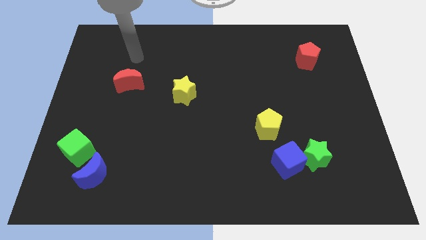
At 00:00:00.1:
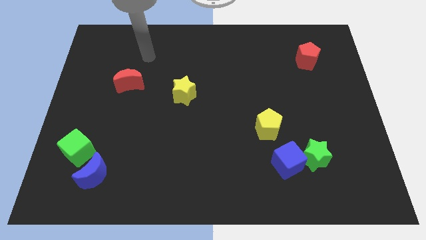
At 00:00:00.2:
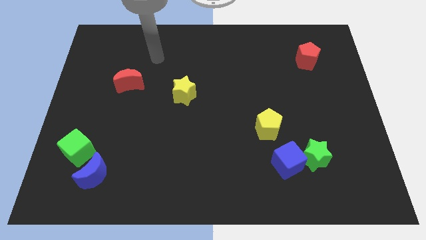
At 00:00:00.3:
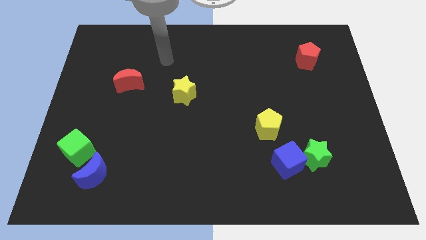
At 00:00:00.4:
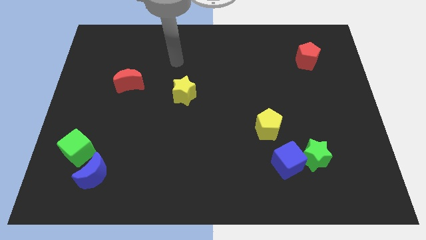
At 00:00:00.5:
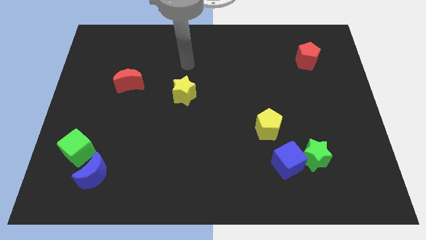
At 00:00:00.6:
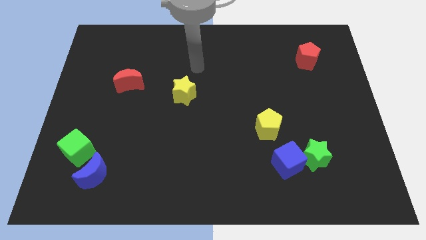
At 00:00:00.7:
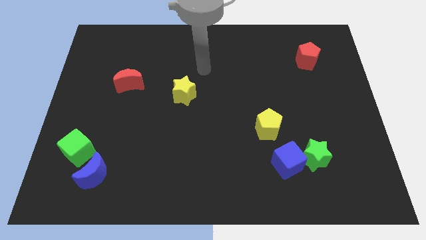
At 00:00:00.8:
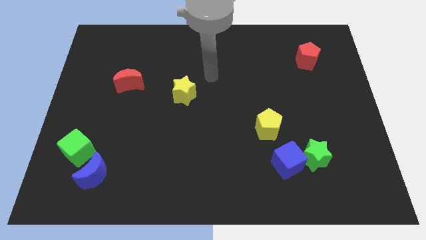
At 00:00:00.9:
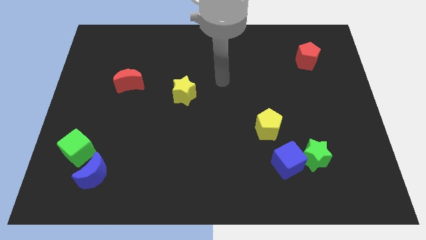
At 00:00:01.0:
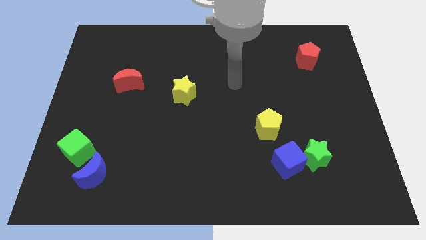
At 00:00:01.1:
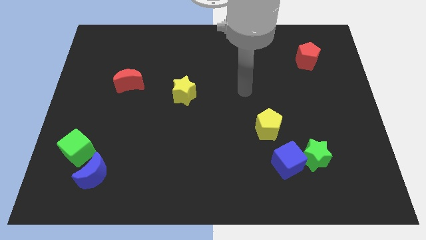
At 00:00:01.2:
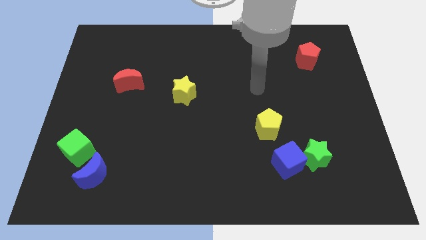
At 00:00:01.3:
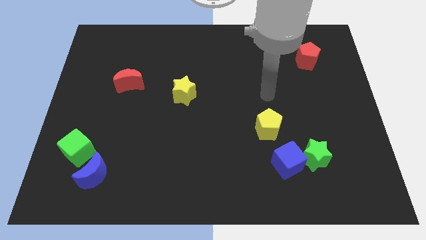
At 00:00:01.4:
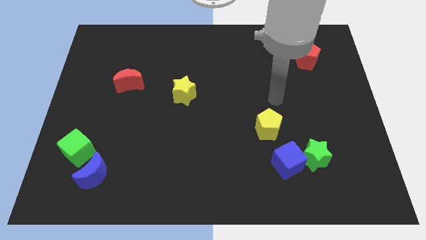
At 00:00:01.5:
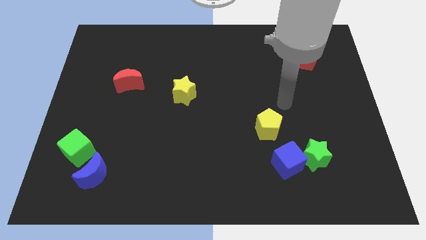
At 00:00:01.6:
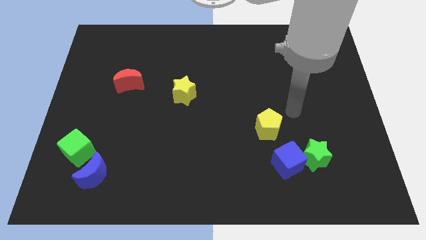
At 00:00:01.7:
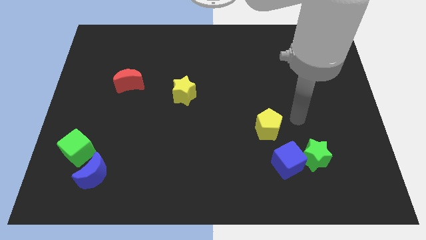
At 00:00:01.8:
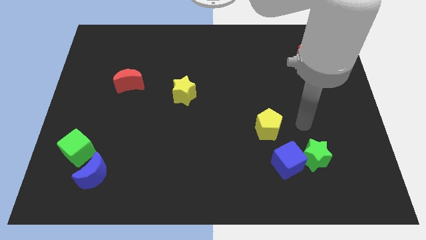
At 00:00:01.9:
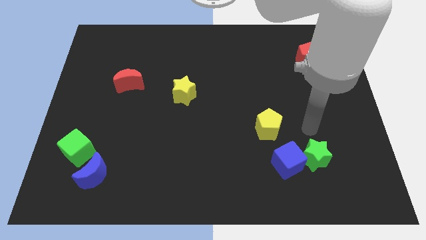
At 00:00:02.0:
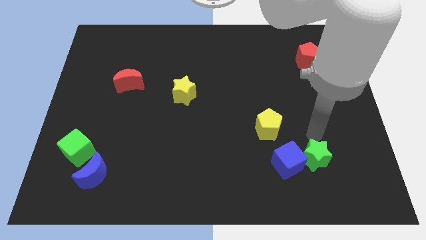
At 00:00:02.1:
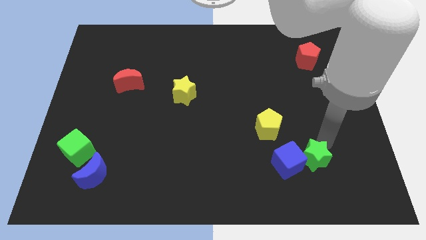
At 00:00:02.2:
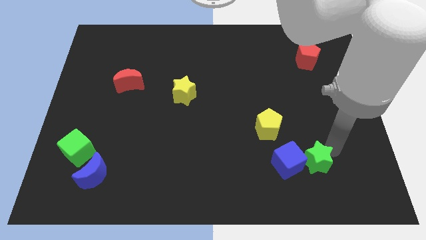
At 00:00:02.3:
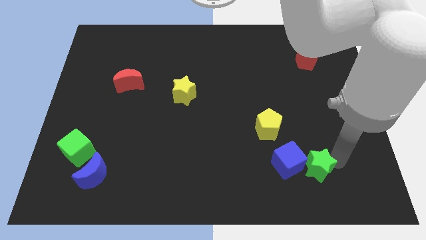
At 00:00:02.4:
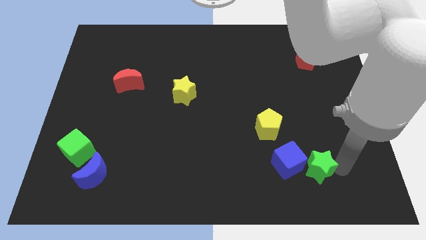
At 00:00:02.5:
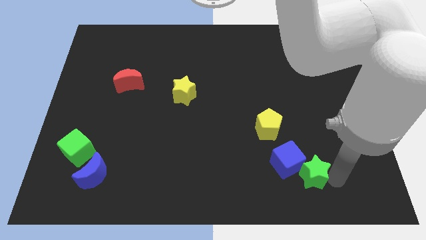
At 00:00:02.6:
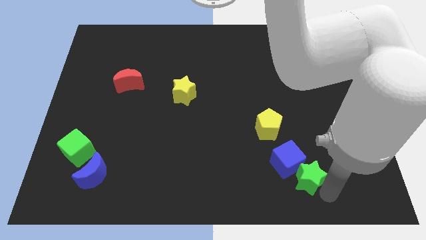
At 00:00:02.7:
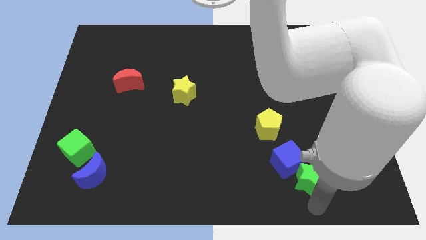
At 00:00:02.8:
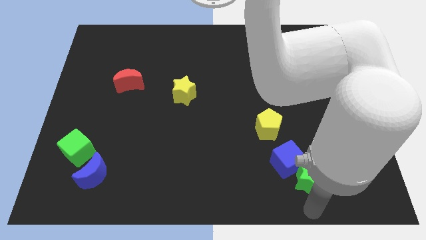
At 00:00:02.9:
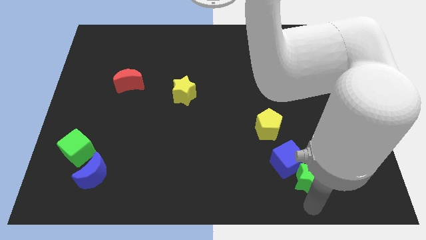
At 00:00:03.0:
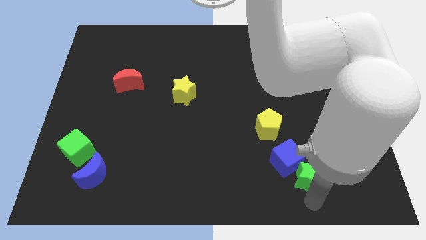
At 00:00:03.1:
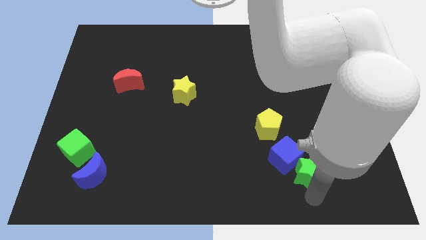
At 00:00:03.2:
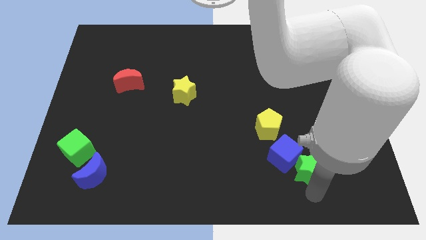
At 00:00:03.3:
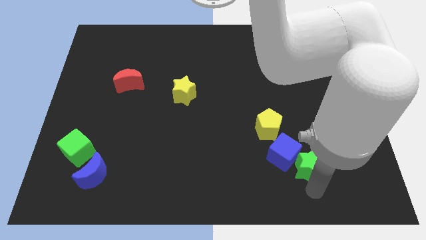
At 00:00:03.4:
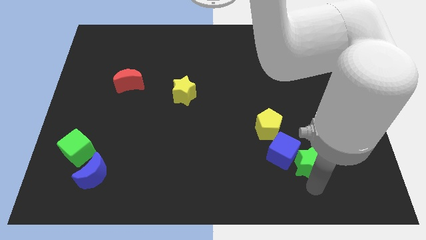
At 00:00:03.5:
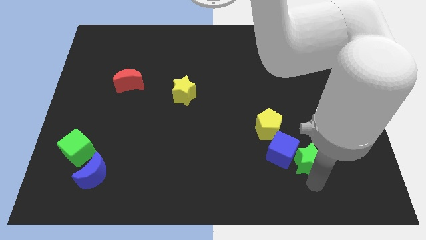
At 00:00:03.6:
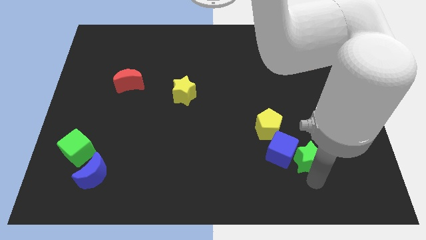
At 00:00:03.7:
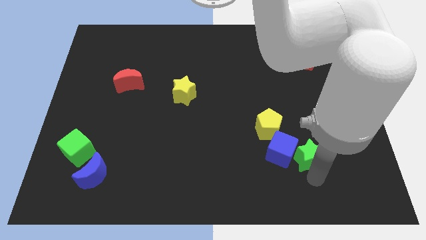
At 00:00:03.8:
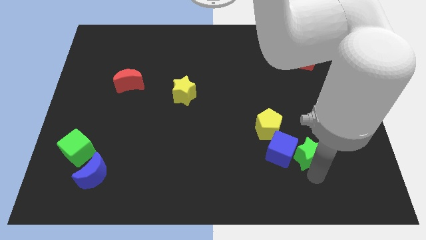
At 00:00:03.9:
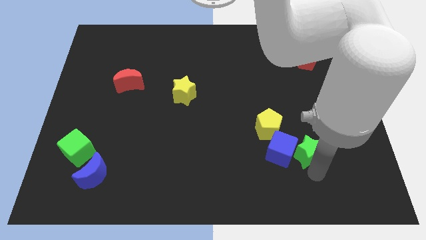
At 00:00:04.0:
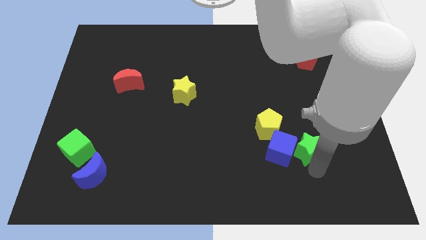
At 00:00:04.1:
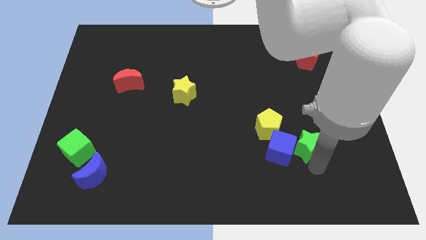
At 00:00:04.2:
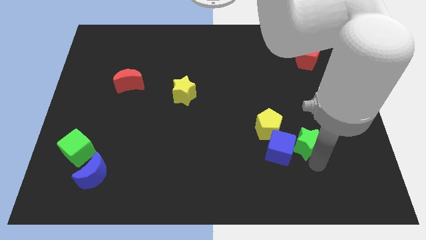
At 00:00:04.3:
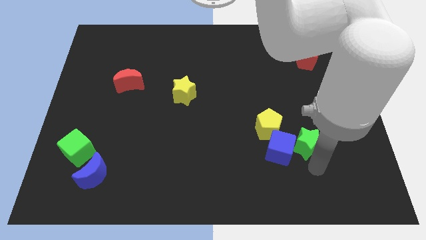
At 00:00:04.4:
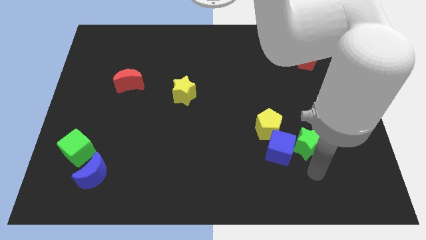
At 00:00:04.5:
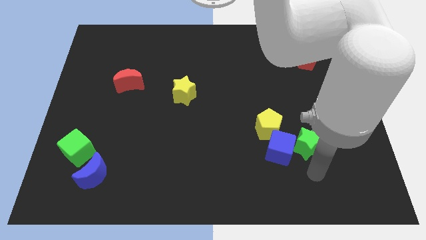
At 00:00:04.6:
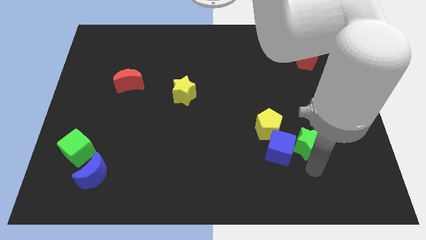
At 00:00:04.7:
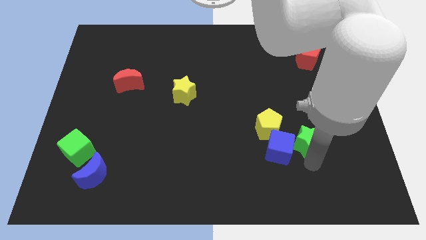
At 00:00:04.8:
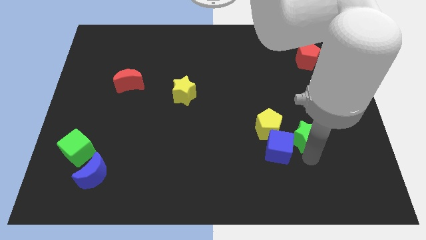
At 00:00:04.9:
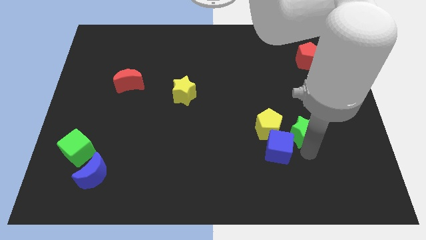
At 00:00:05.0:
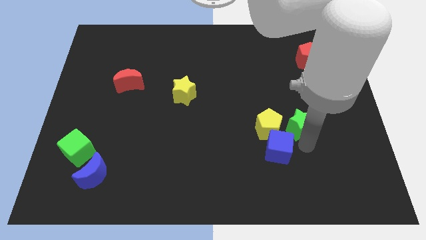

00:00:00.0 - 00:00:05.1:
slide the green star to the top right side of the yellow pentagon

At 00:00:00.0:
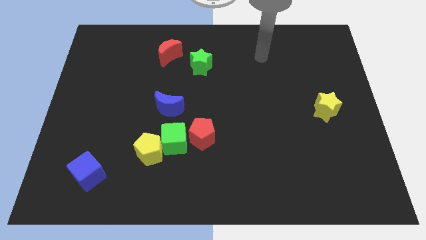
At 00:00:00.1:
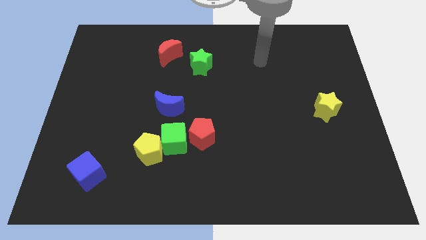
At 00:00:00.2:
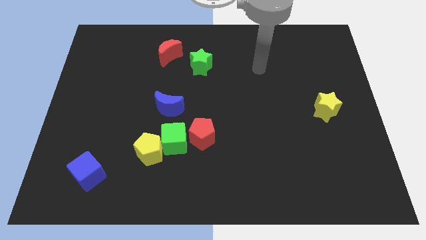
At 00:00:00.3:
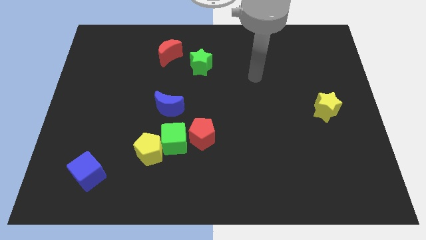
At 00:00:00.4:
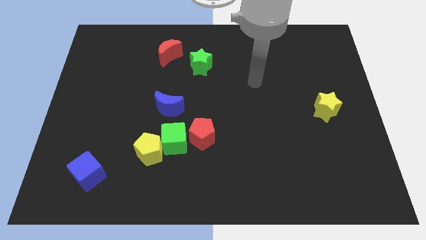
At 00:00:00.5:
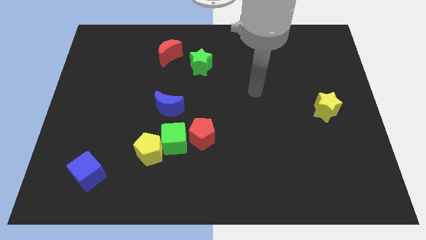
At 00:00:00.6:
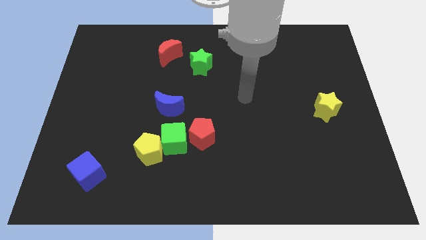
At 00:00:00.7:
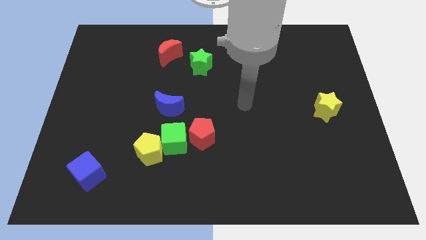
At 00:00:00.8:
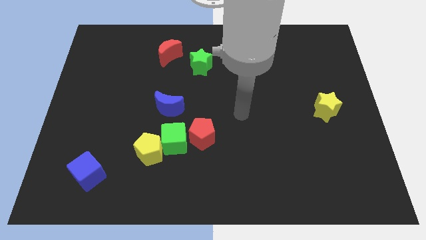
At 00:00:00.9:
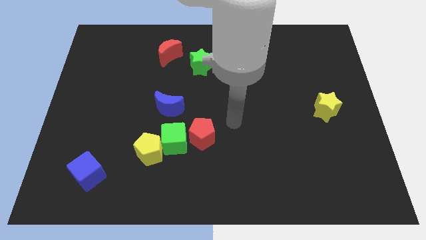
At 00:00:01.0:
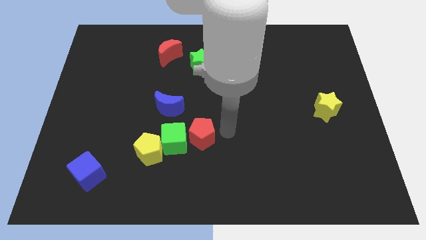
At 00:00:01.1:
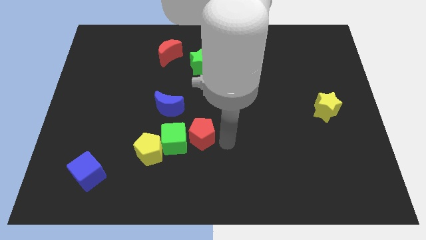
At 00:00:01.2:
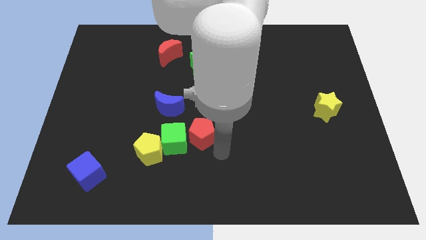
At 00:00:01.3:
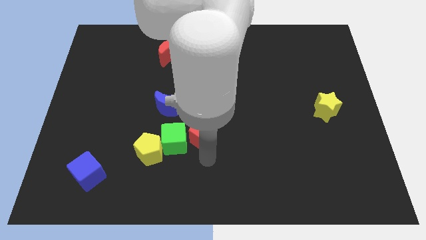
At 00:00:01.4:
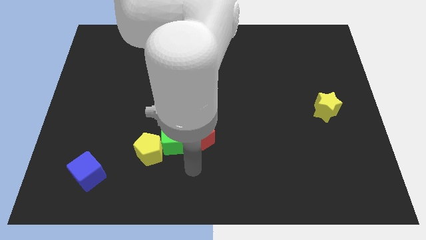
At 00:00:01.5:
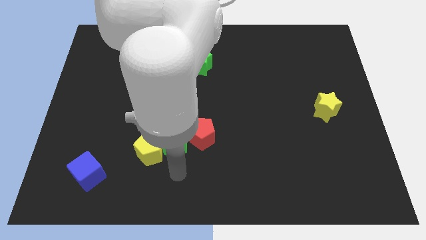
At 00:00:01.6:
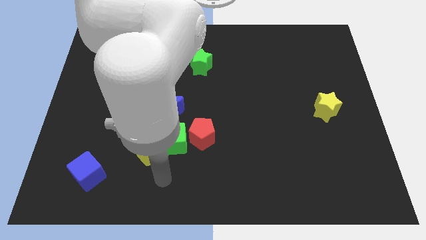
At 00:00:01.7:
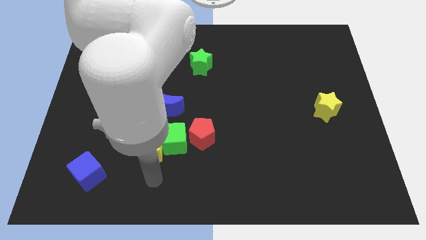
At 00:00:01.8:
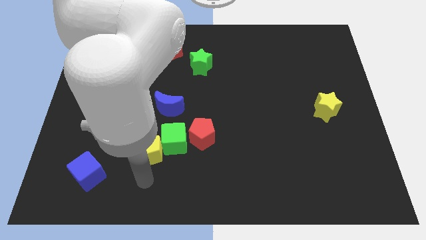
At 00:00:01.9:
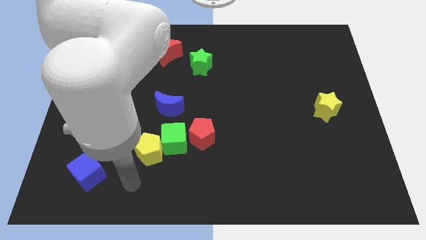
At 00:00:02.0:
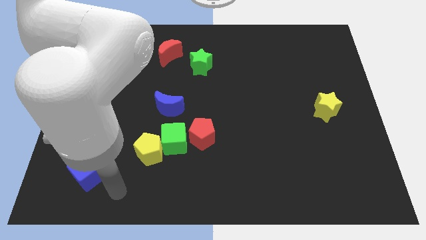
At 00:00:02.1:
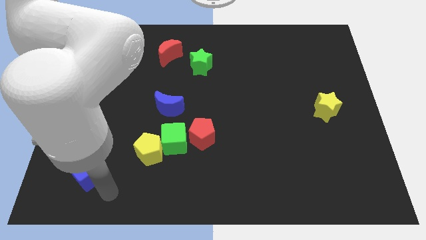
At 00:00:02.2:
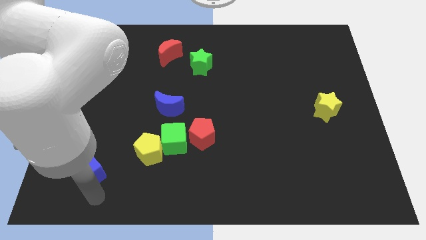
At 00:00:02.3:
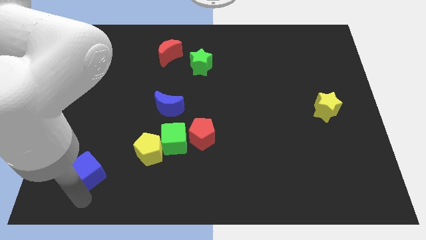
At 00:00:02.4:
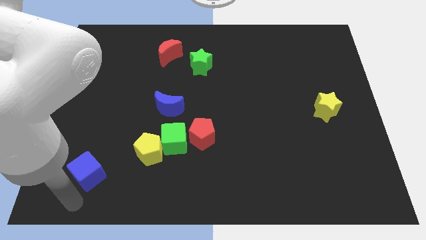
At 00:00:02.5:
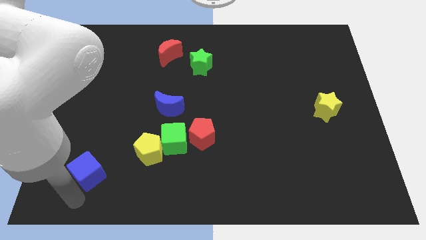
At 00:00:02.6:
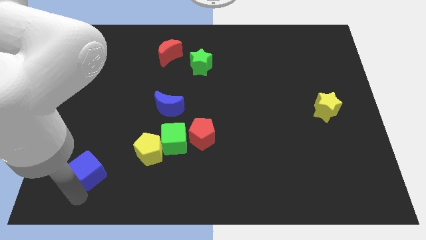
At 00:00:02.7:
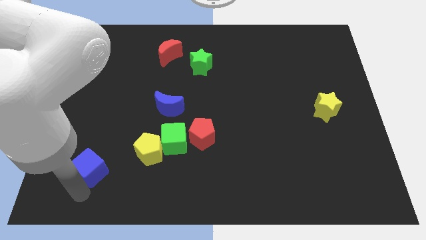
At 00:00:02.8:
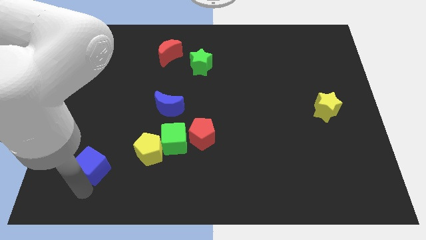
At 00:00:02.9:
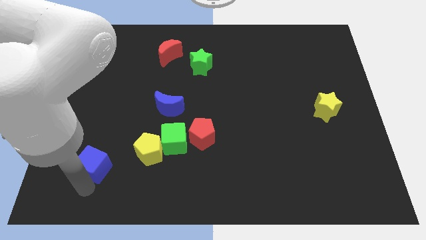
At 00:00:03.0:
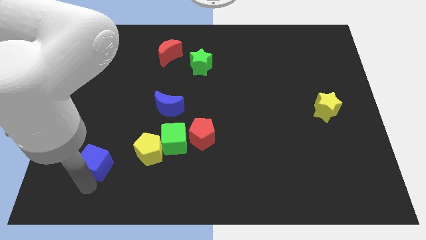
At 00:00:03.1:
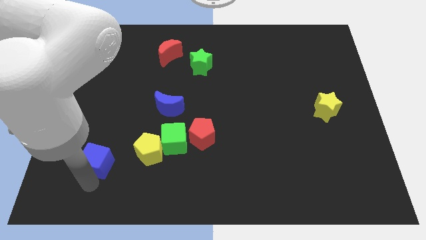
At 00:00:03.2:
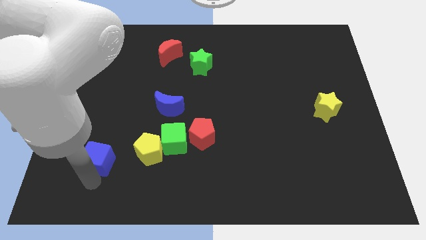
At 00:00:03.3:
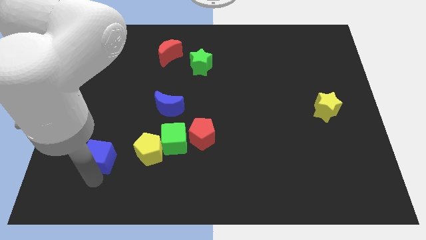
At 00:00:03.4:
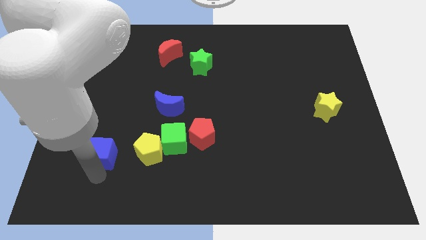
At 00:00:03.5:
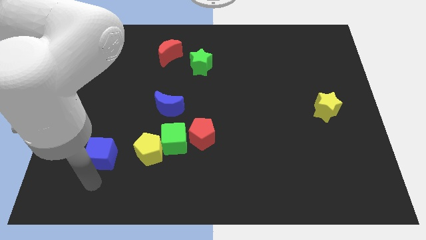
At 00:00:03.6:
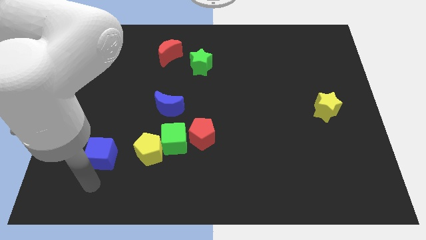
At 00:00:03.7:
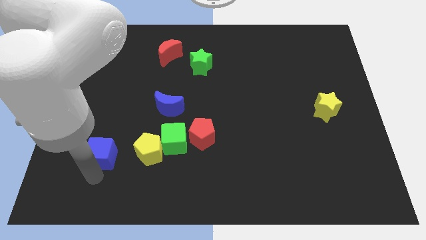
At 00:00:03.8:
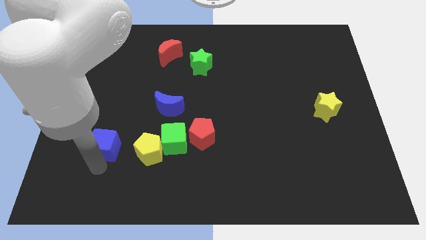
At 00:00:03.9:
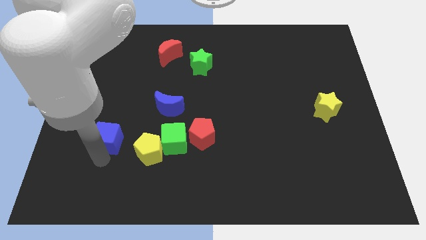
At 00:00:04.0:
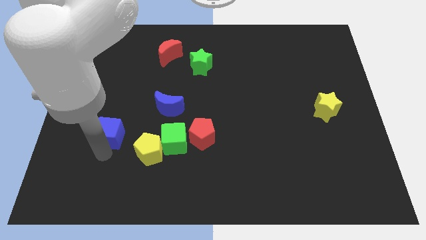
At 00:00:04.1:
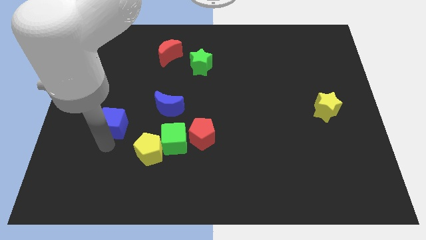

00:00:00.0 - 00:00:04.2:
slide the blue cube just left of the blue moon
